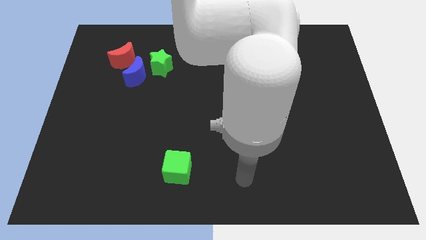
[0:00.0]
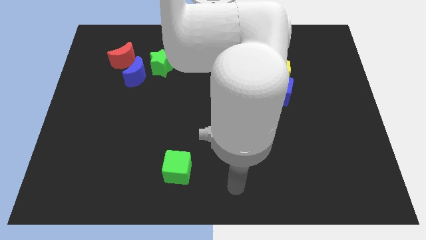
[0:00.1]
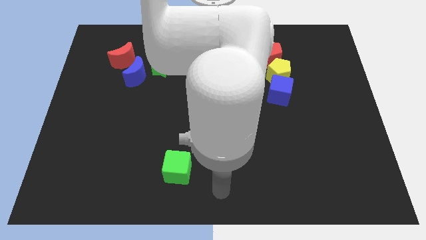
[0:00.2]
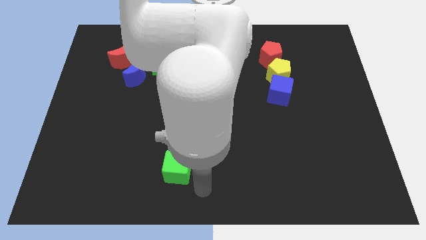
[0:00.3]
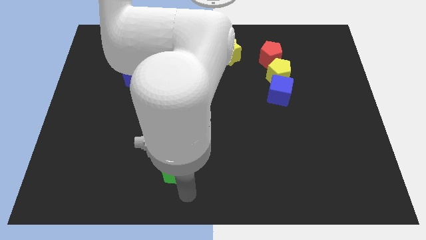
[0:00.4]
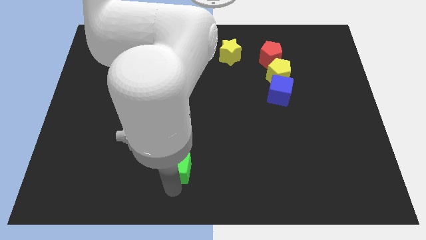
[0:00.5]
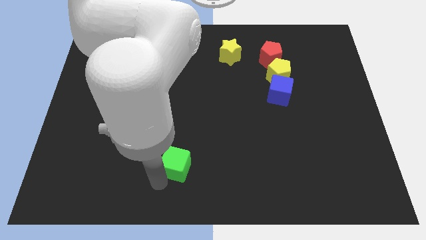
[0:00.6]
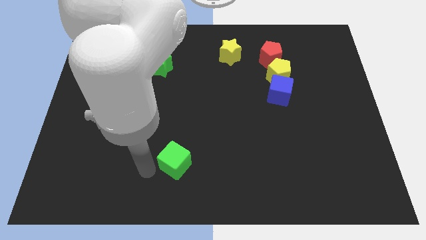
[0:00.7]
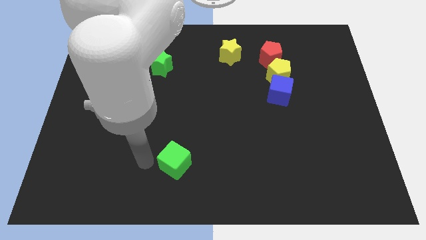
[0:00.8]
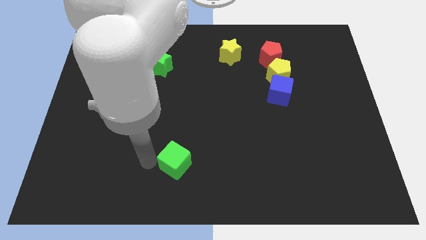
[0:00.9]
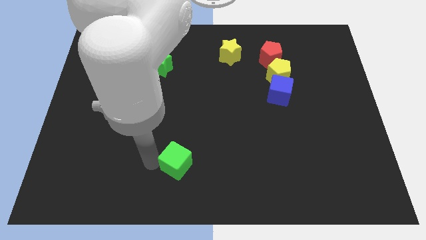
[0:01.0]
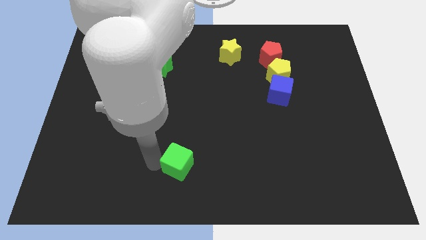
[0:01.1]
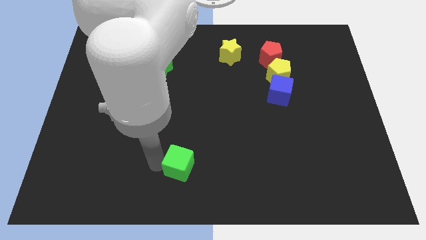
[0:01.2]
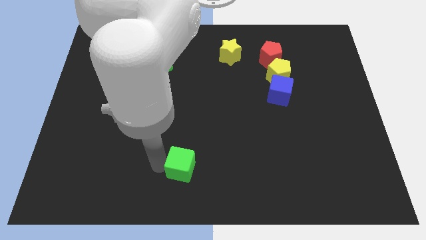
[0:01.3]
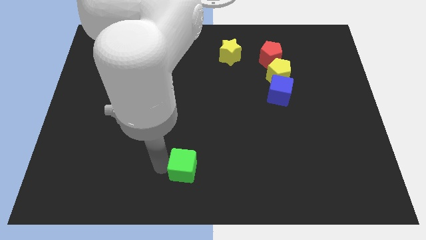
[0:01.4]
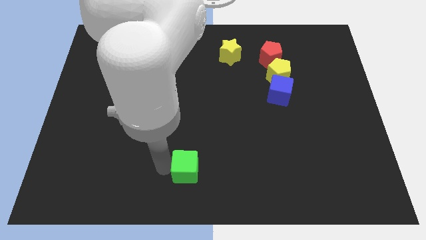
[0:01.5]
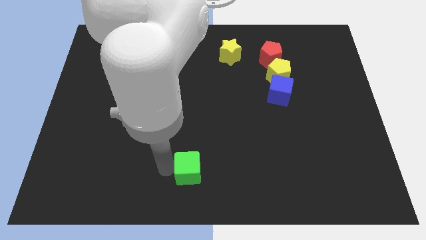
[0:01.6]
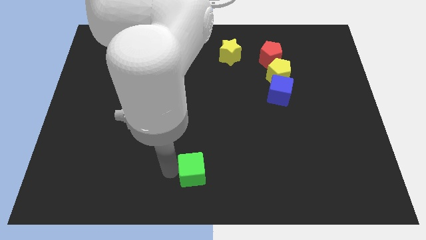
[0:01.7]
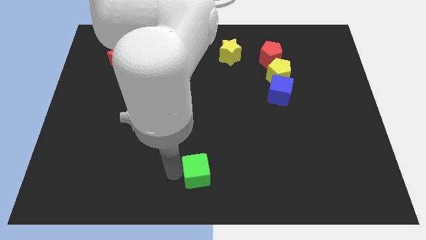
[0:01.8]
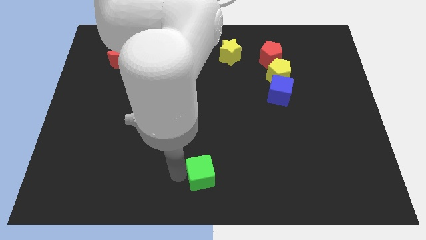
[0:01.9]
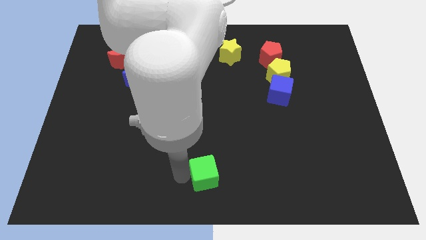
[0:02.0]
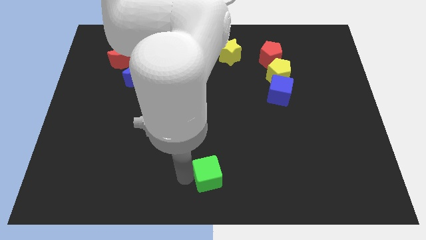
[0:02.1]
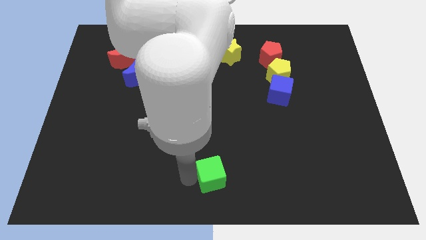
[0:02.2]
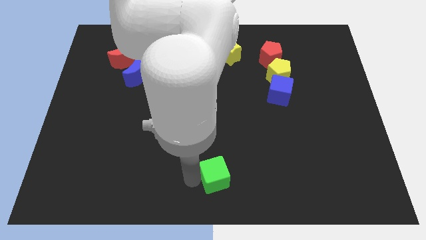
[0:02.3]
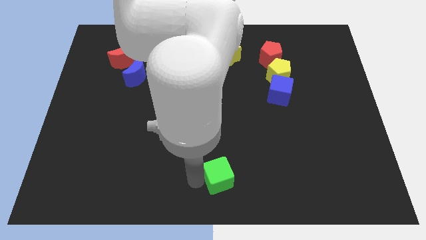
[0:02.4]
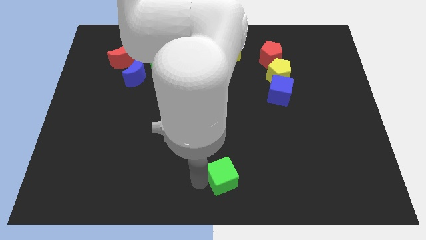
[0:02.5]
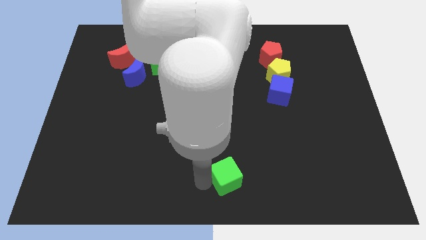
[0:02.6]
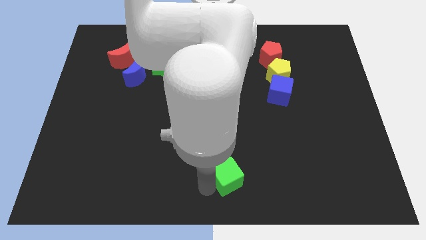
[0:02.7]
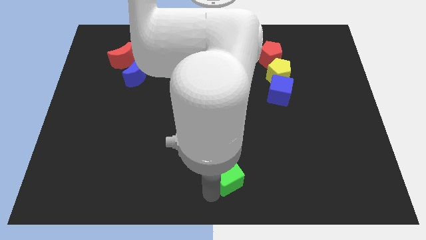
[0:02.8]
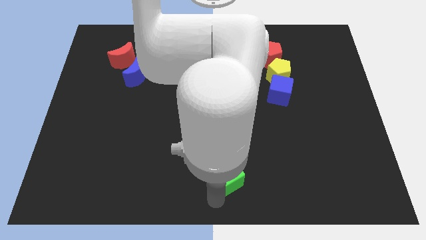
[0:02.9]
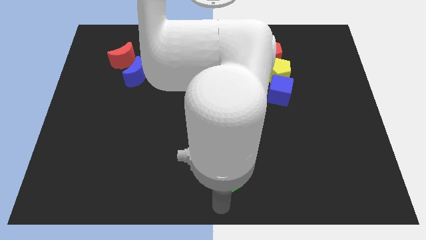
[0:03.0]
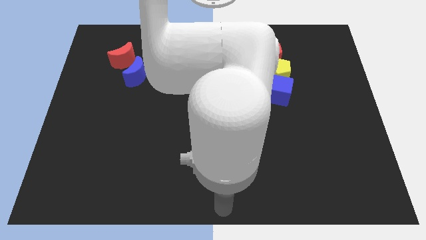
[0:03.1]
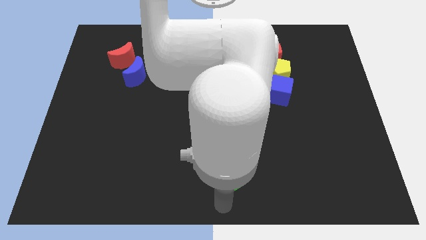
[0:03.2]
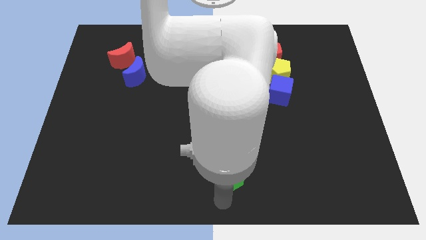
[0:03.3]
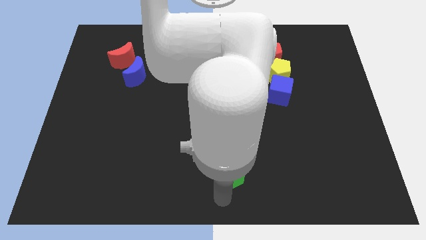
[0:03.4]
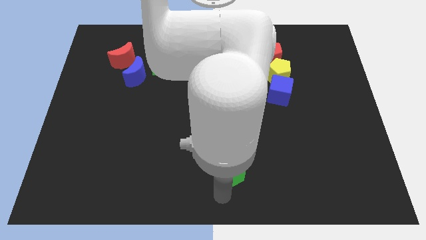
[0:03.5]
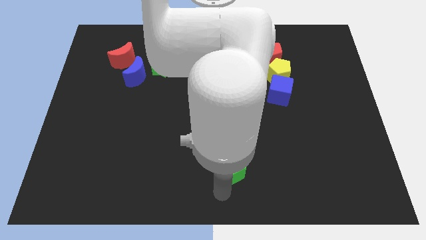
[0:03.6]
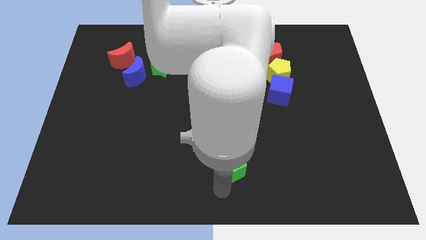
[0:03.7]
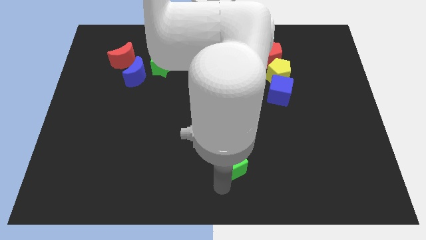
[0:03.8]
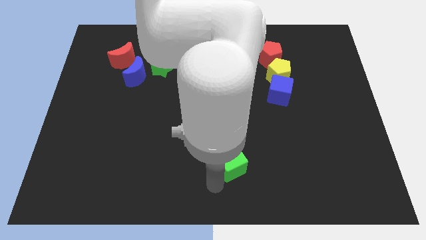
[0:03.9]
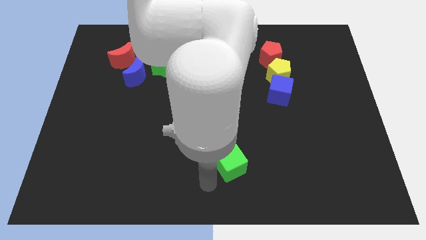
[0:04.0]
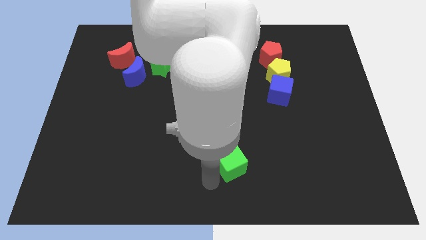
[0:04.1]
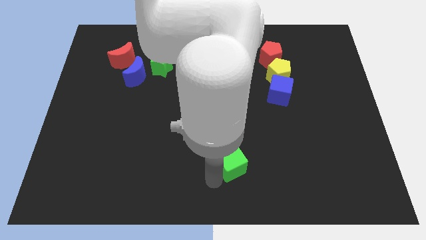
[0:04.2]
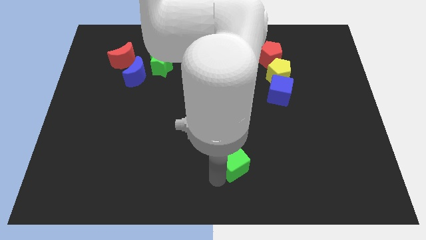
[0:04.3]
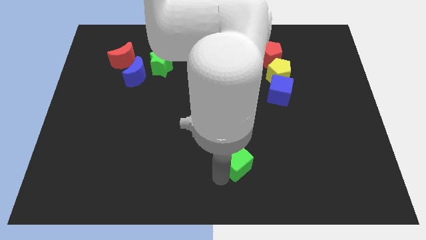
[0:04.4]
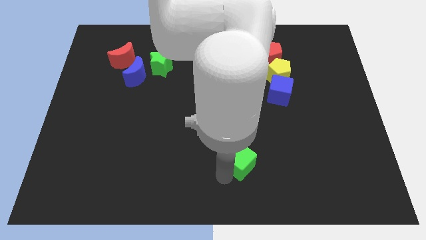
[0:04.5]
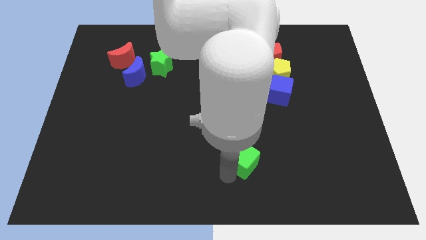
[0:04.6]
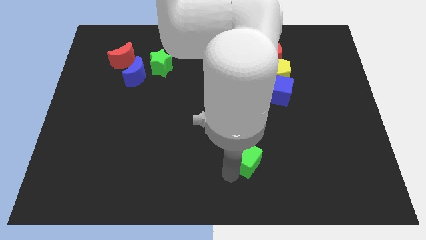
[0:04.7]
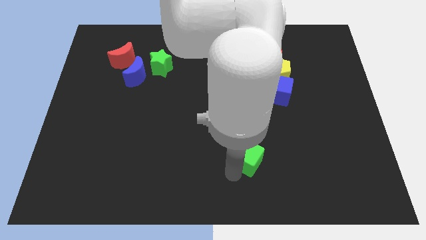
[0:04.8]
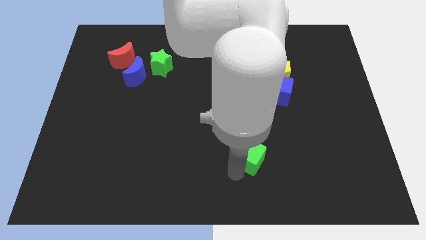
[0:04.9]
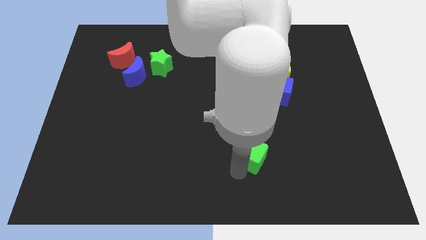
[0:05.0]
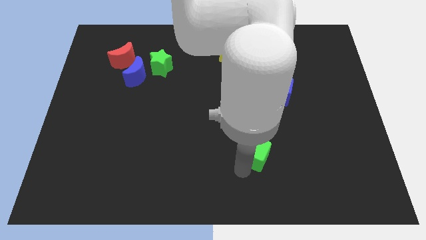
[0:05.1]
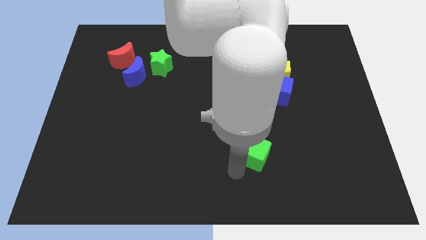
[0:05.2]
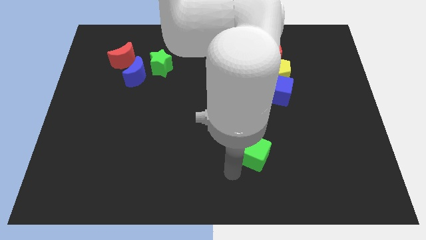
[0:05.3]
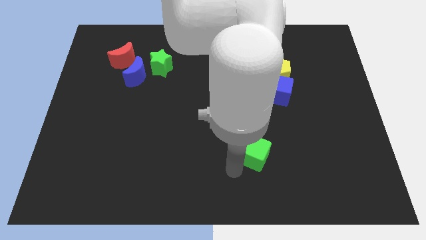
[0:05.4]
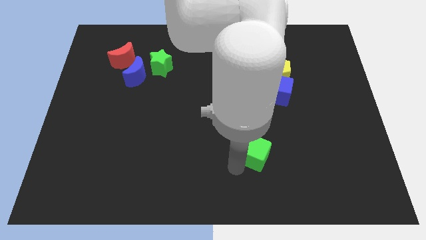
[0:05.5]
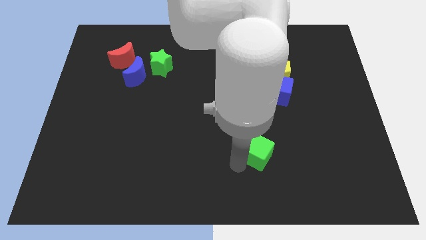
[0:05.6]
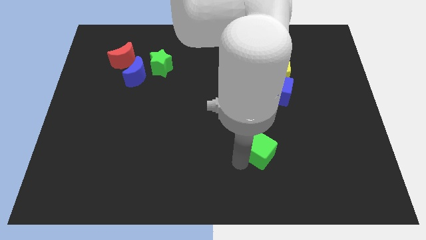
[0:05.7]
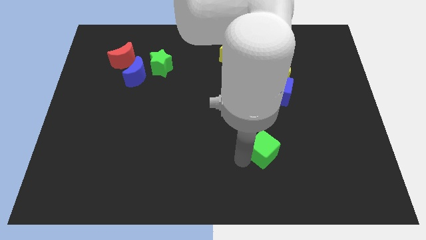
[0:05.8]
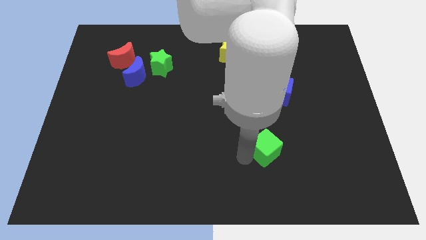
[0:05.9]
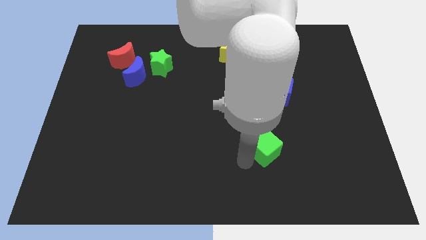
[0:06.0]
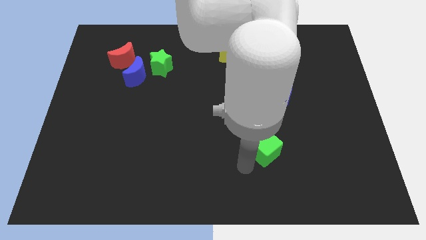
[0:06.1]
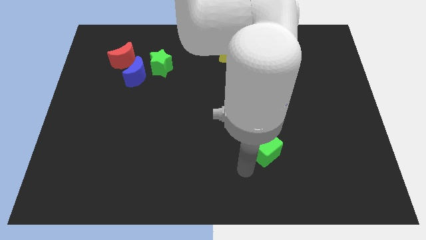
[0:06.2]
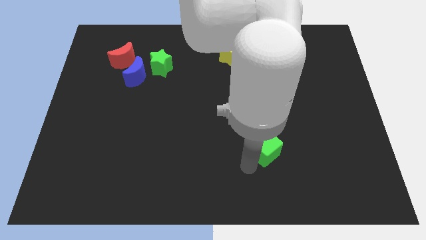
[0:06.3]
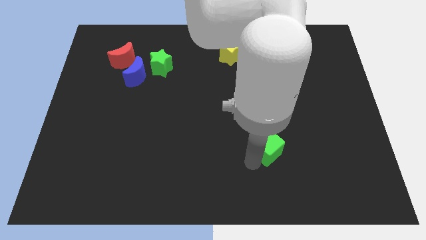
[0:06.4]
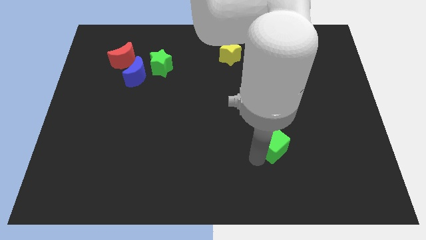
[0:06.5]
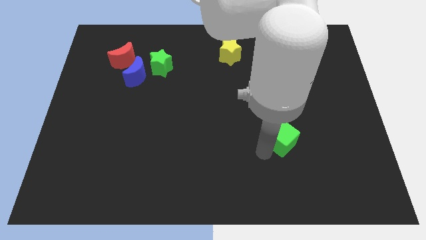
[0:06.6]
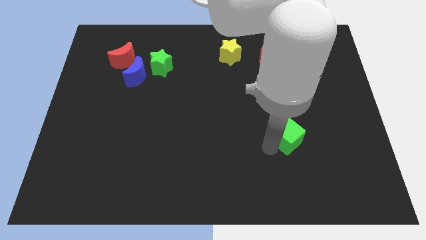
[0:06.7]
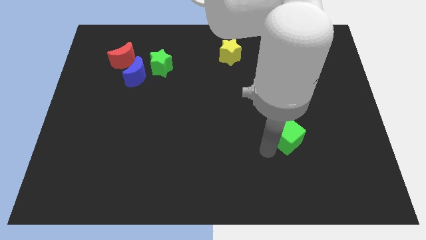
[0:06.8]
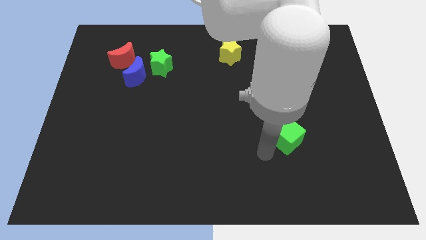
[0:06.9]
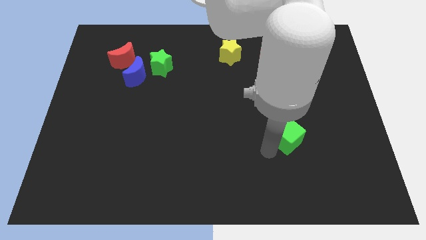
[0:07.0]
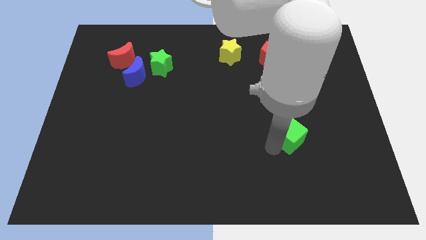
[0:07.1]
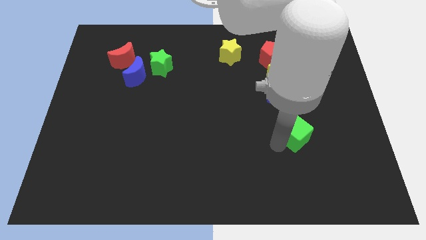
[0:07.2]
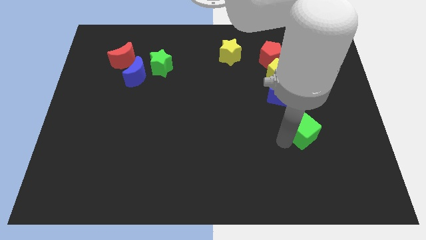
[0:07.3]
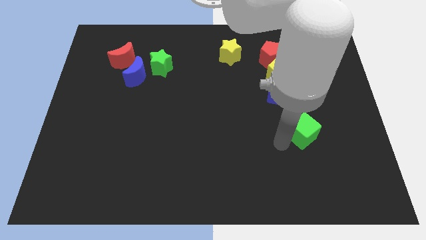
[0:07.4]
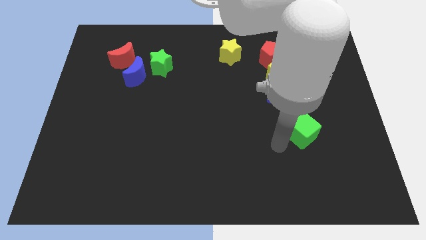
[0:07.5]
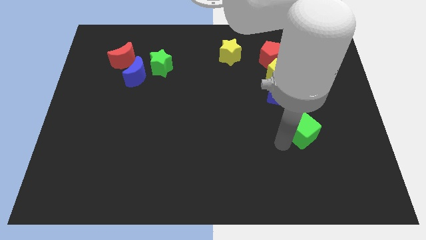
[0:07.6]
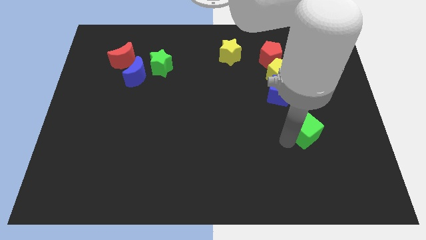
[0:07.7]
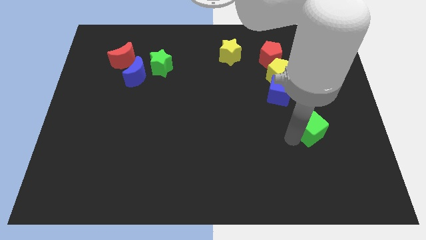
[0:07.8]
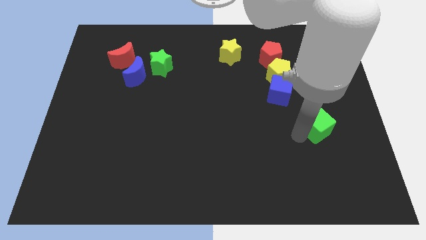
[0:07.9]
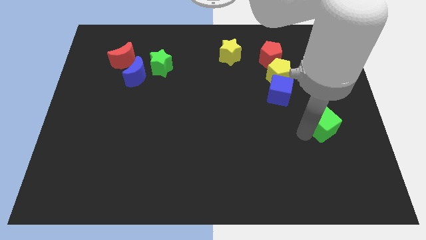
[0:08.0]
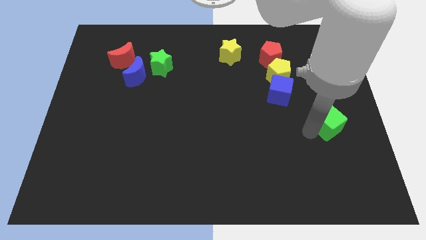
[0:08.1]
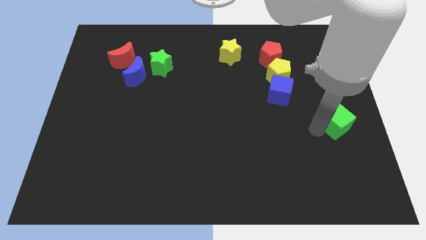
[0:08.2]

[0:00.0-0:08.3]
push the green cube to the center right
